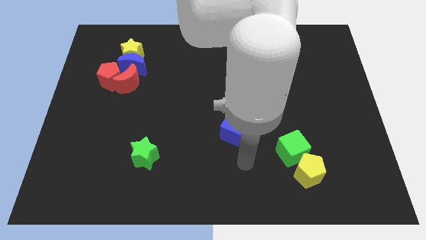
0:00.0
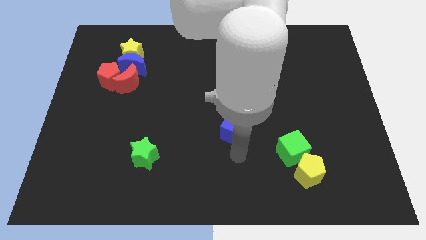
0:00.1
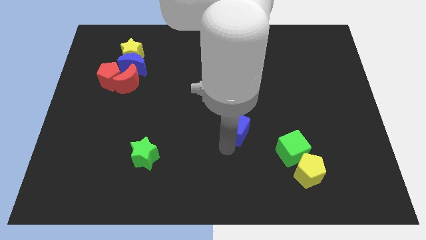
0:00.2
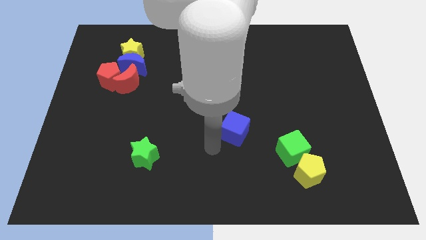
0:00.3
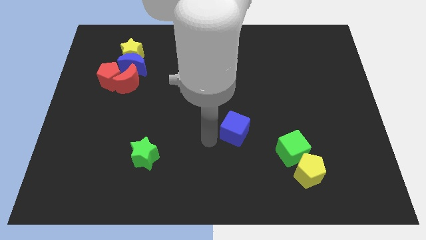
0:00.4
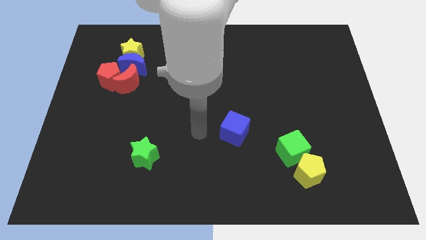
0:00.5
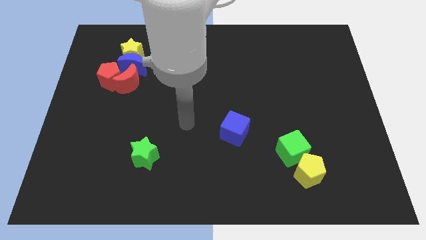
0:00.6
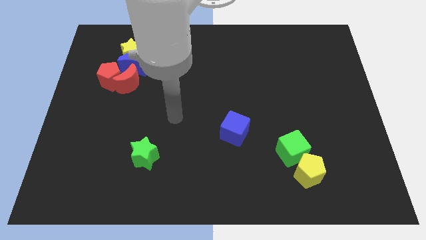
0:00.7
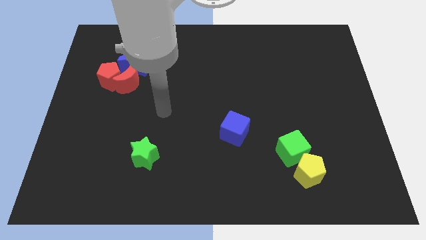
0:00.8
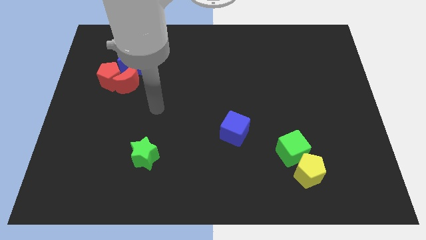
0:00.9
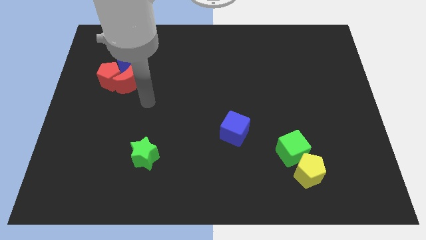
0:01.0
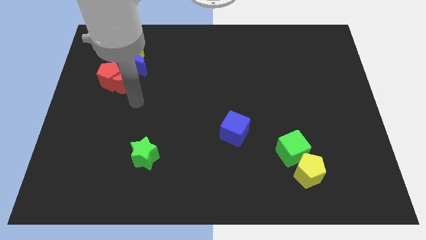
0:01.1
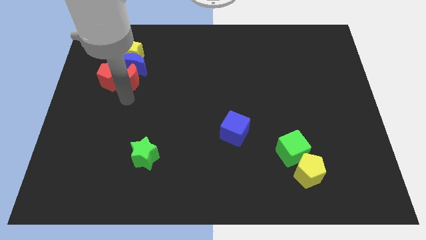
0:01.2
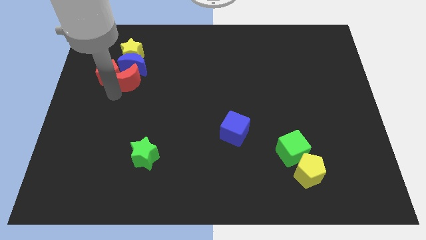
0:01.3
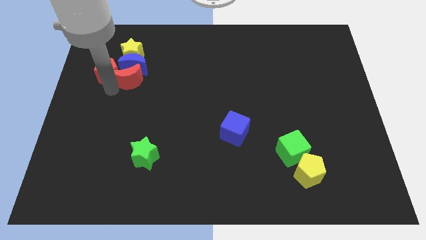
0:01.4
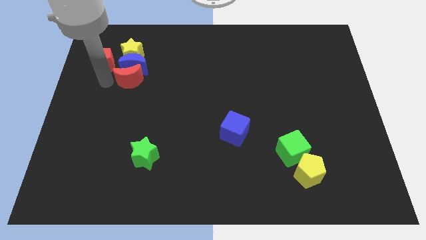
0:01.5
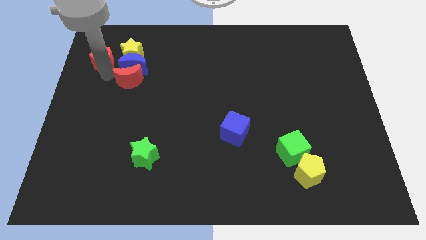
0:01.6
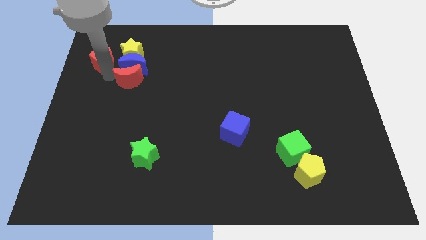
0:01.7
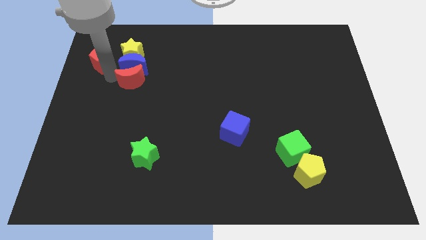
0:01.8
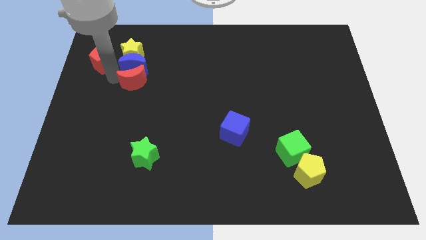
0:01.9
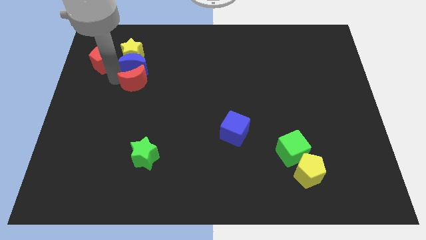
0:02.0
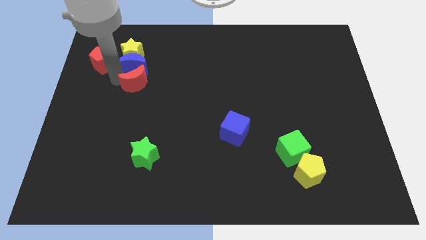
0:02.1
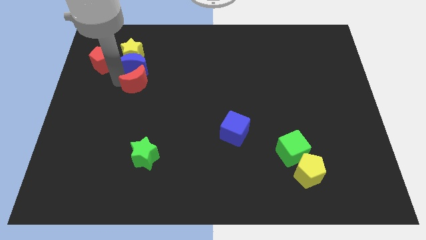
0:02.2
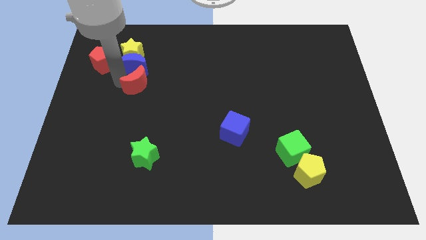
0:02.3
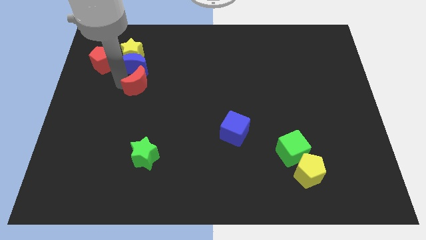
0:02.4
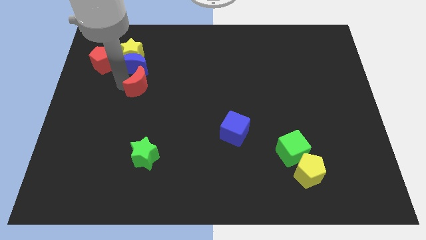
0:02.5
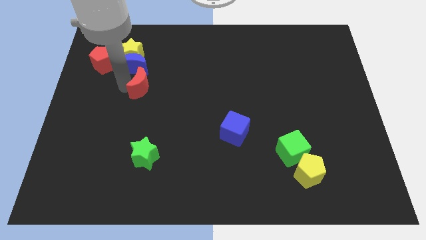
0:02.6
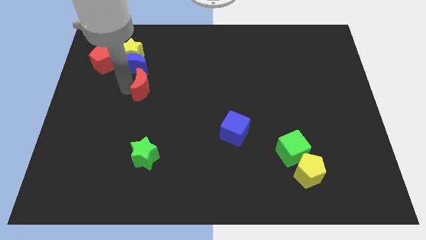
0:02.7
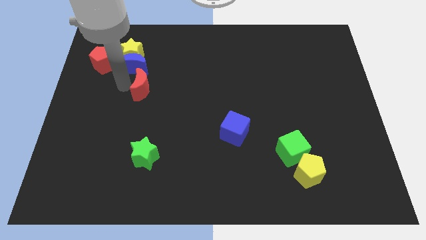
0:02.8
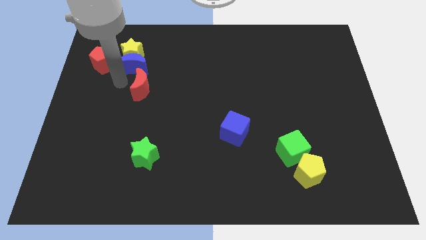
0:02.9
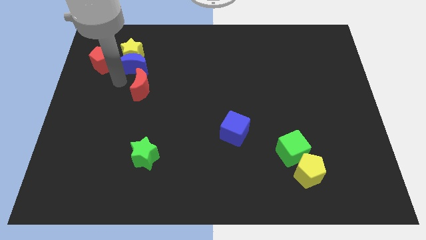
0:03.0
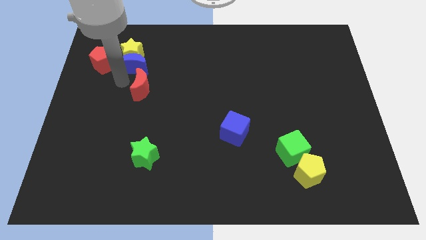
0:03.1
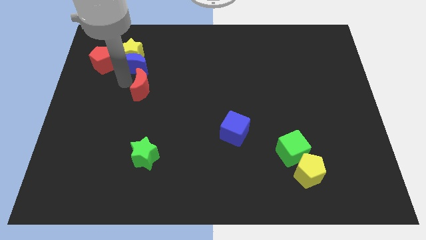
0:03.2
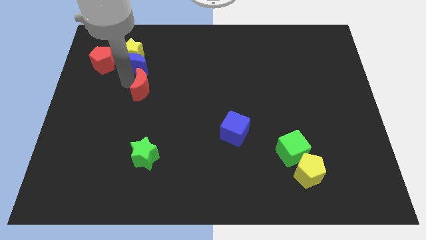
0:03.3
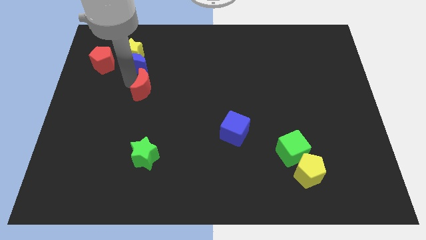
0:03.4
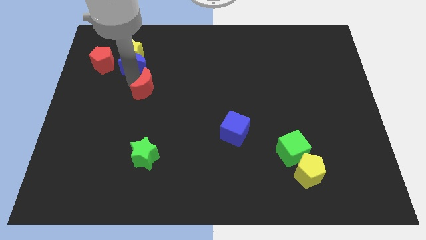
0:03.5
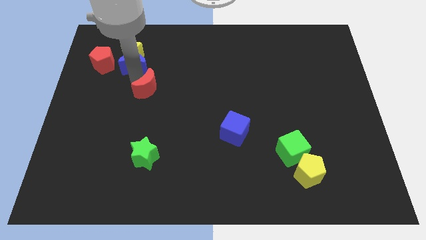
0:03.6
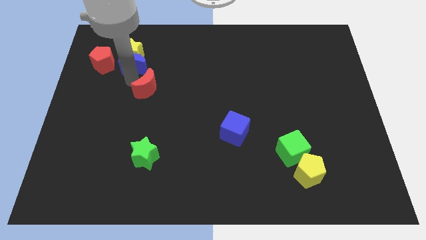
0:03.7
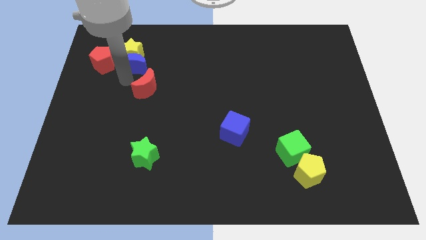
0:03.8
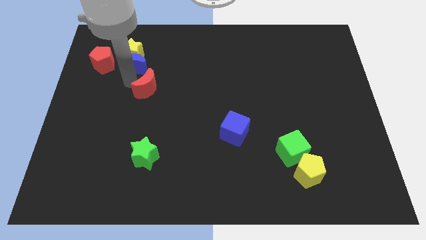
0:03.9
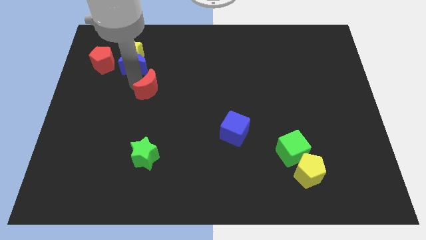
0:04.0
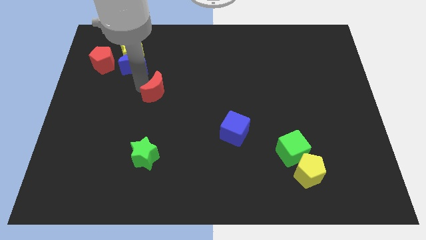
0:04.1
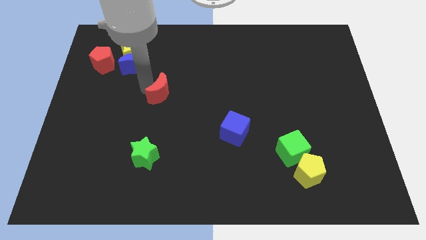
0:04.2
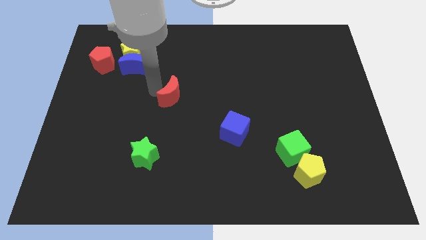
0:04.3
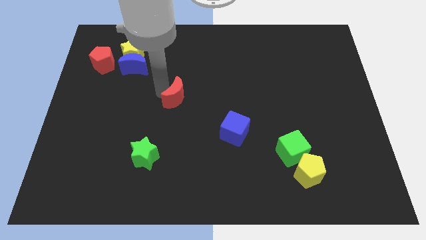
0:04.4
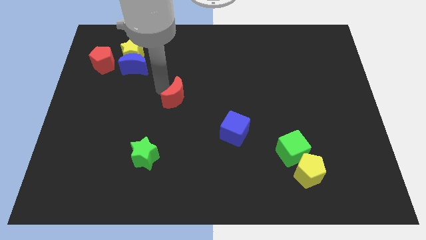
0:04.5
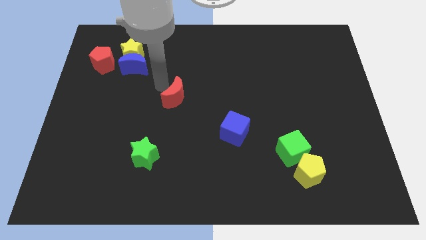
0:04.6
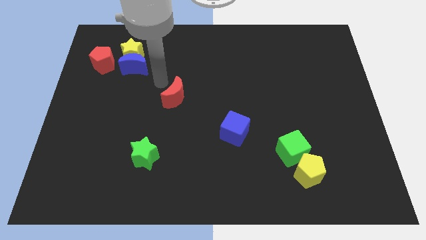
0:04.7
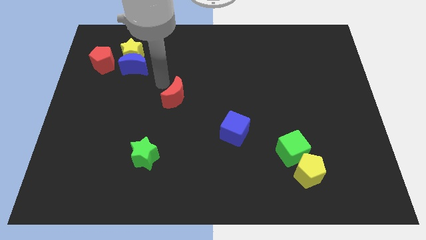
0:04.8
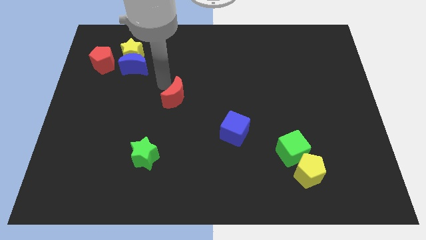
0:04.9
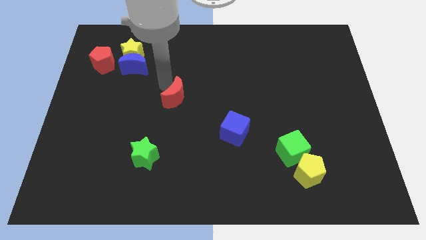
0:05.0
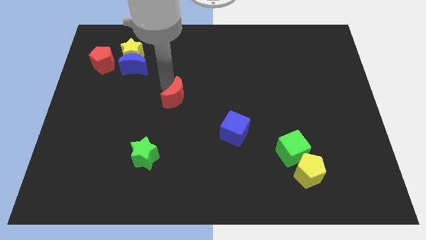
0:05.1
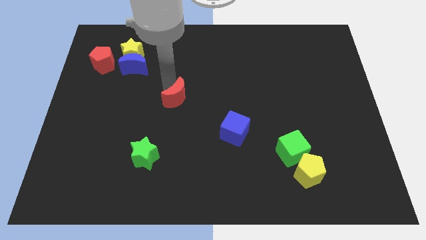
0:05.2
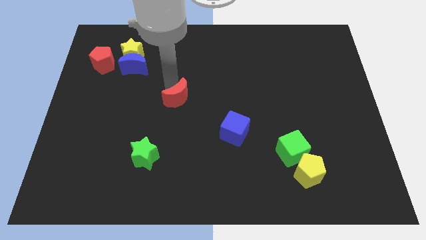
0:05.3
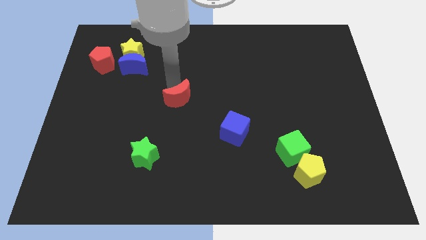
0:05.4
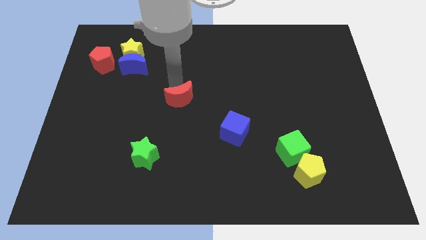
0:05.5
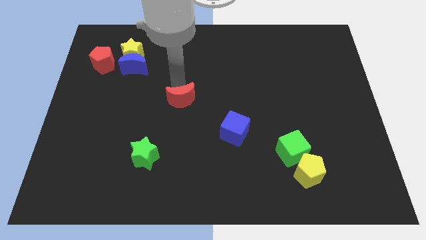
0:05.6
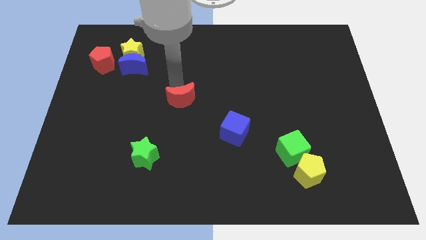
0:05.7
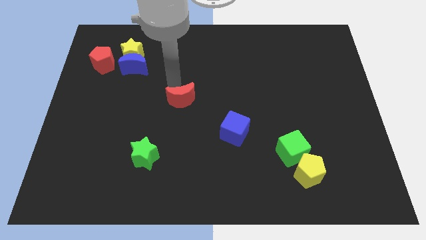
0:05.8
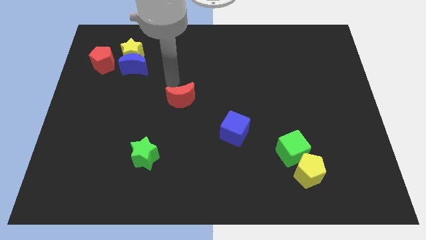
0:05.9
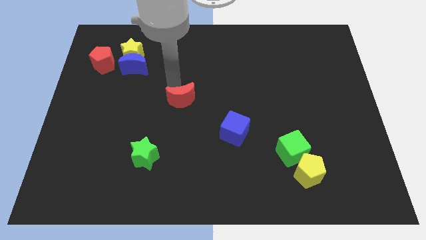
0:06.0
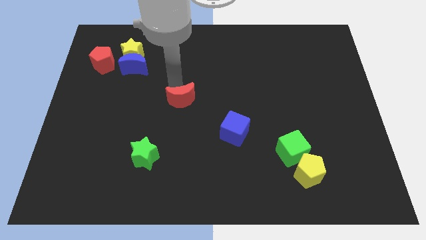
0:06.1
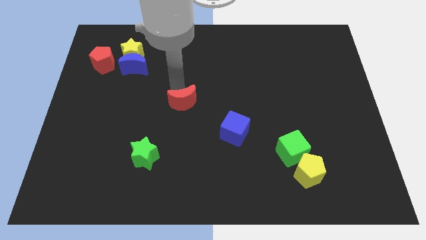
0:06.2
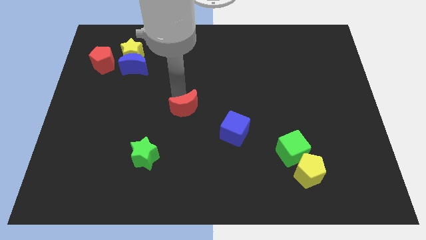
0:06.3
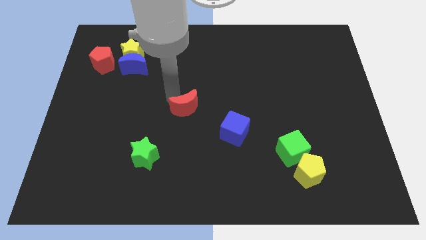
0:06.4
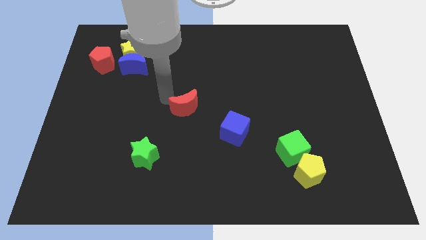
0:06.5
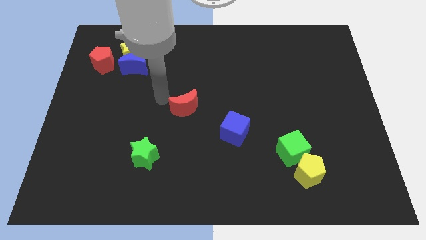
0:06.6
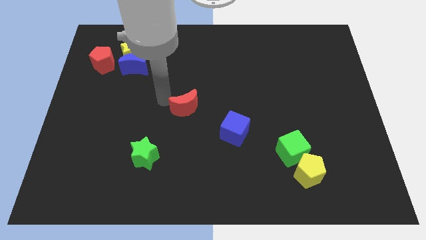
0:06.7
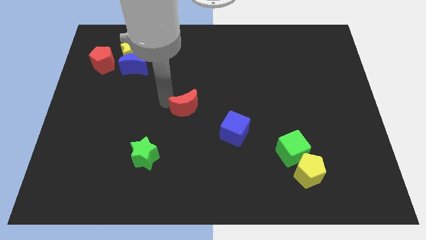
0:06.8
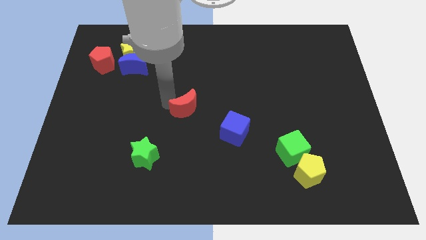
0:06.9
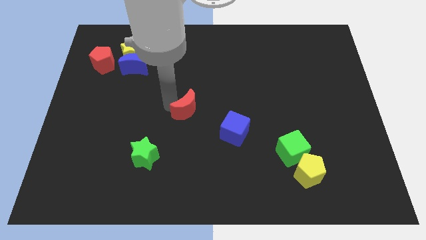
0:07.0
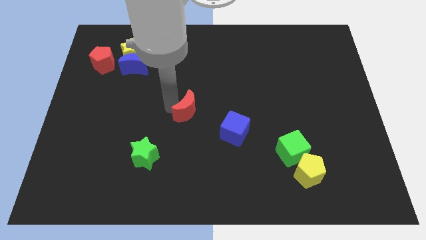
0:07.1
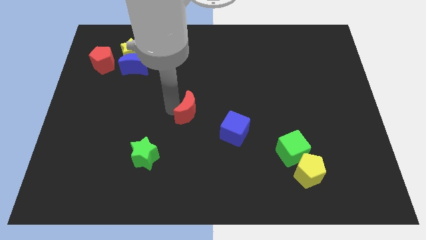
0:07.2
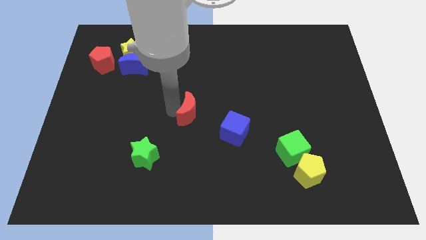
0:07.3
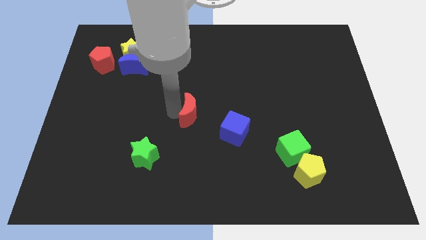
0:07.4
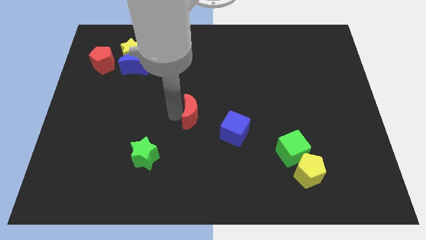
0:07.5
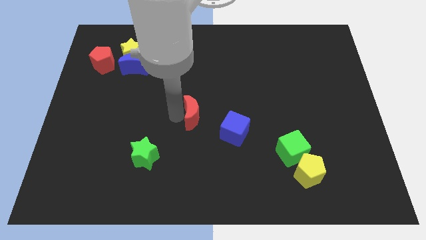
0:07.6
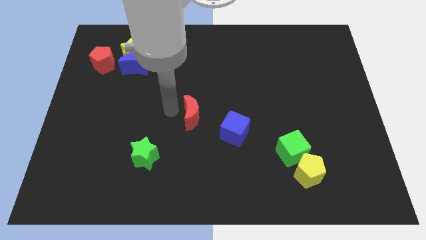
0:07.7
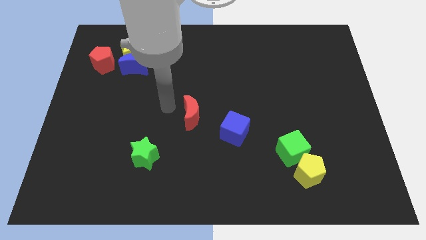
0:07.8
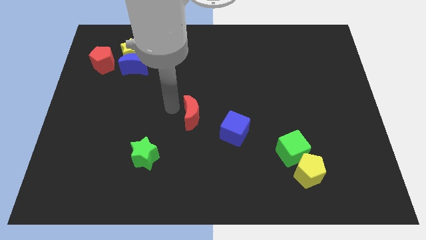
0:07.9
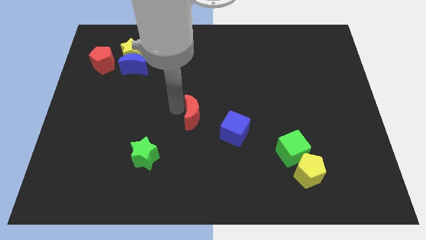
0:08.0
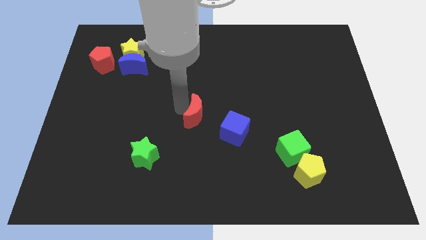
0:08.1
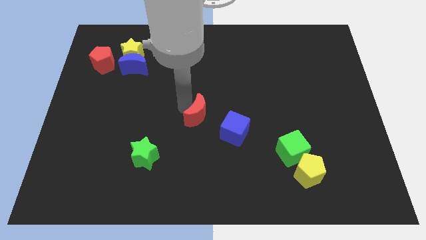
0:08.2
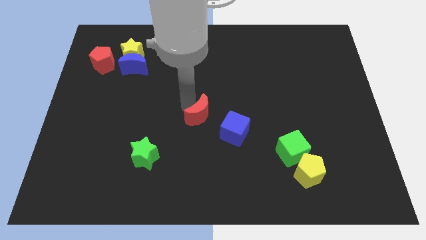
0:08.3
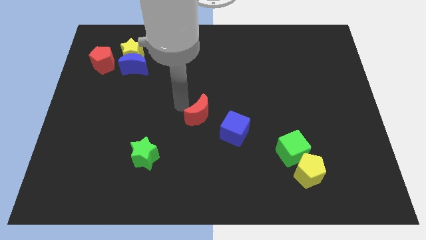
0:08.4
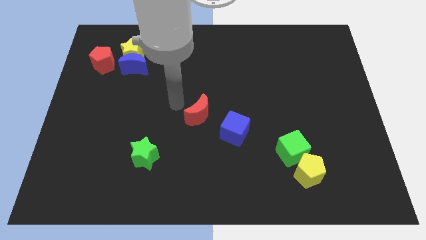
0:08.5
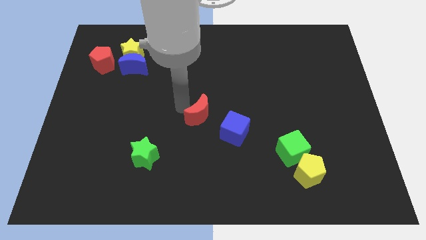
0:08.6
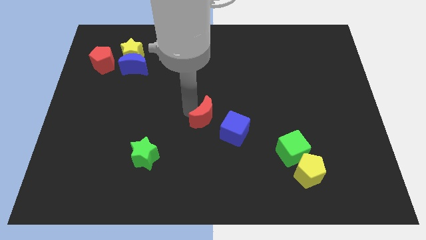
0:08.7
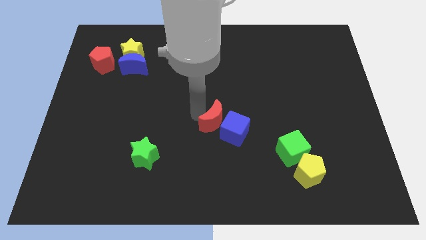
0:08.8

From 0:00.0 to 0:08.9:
put the red moon towards the blue cube
